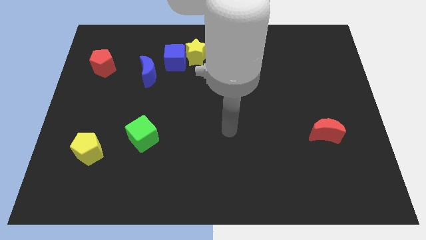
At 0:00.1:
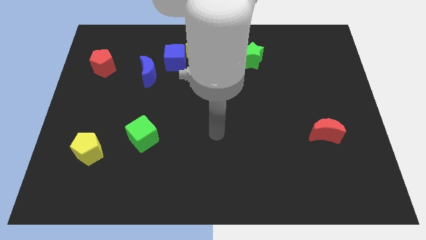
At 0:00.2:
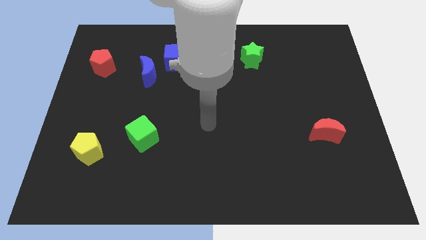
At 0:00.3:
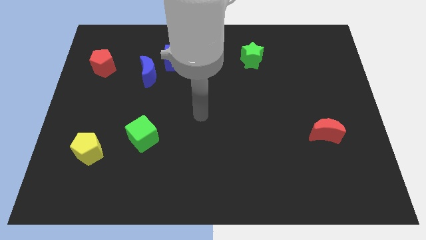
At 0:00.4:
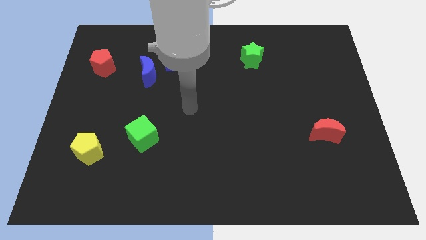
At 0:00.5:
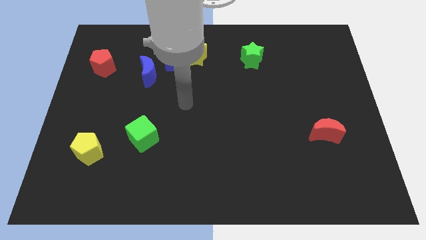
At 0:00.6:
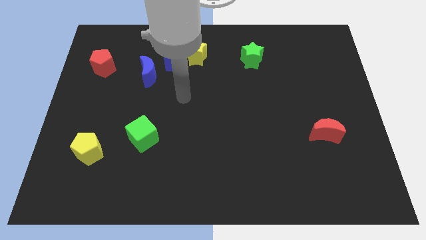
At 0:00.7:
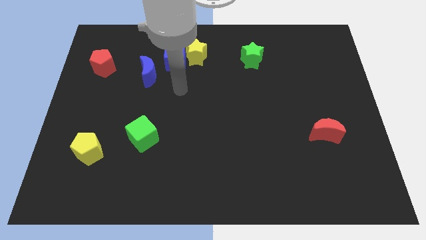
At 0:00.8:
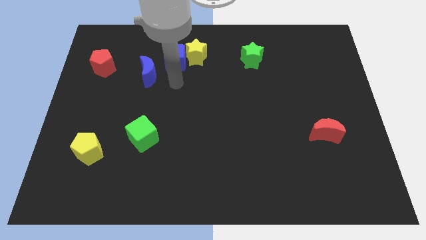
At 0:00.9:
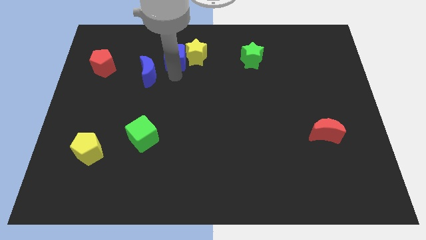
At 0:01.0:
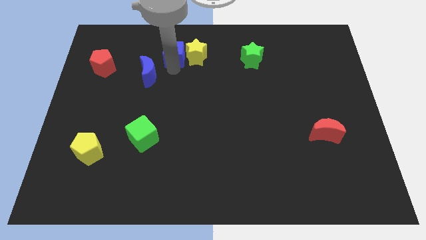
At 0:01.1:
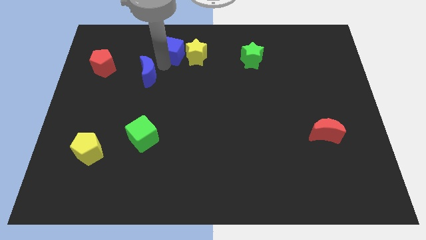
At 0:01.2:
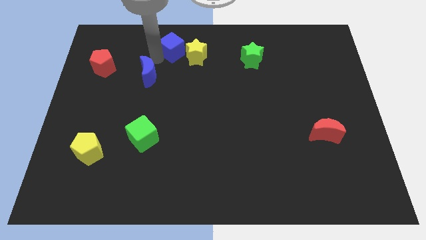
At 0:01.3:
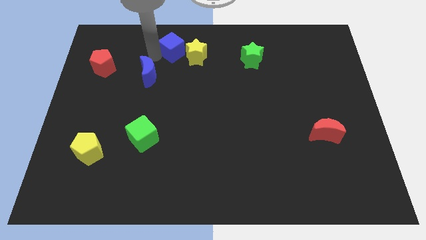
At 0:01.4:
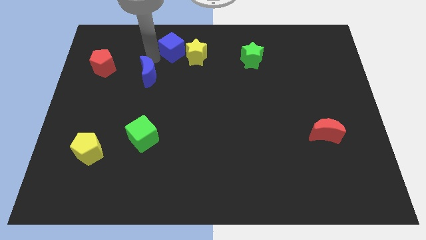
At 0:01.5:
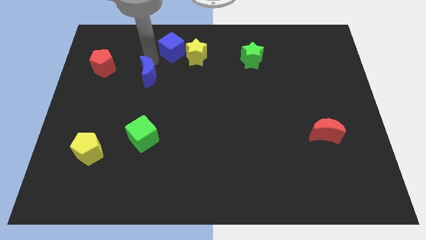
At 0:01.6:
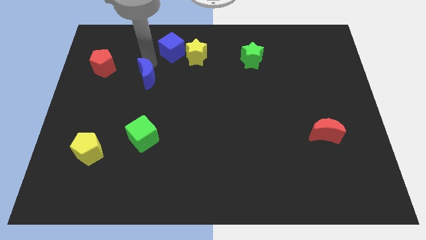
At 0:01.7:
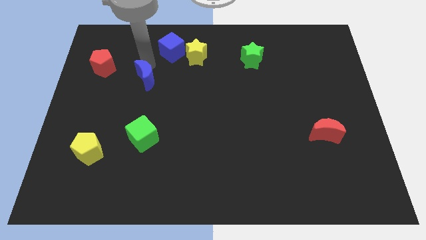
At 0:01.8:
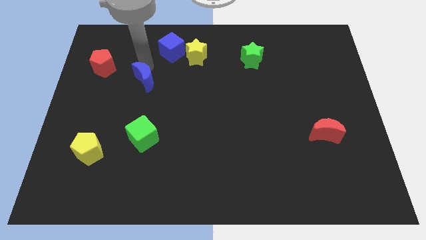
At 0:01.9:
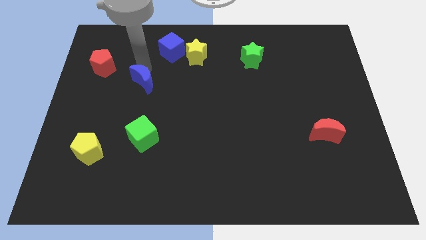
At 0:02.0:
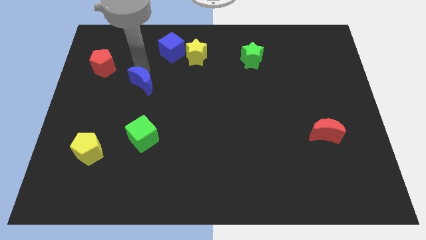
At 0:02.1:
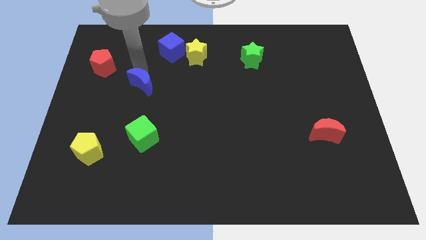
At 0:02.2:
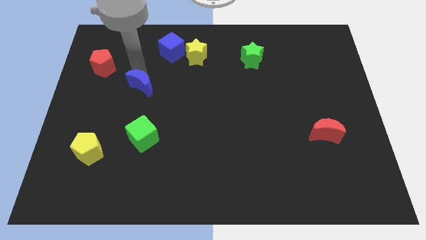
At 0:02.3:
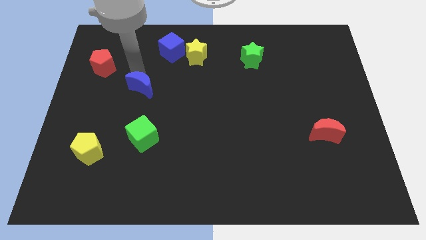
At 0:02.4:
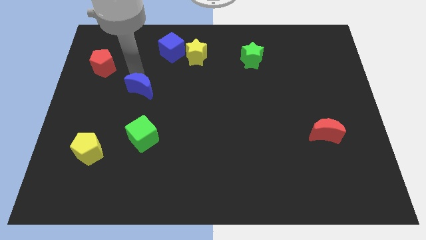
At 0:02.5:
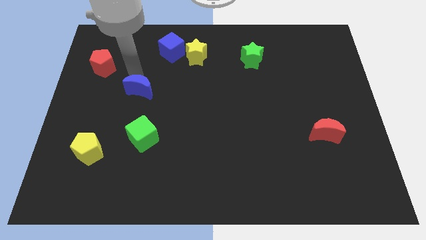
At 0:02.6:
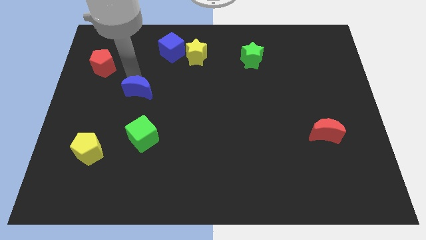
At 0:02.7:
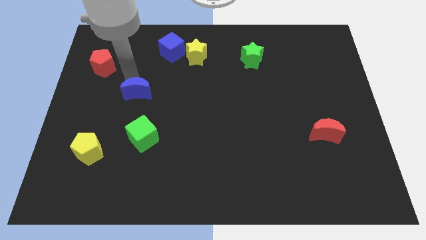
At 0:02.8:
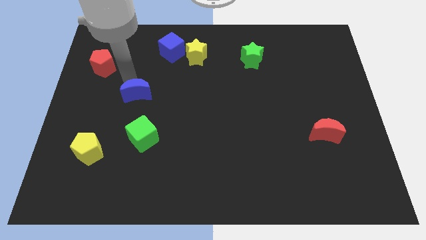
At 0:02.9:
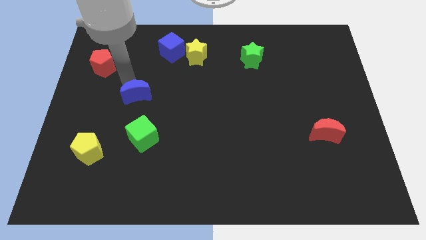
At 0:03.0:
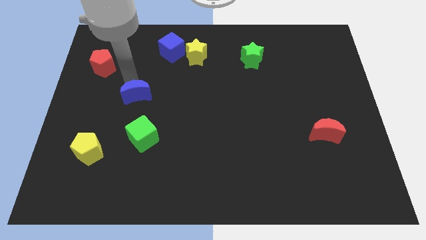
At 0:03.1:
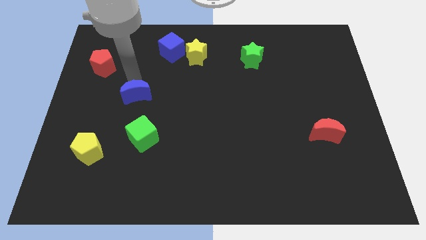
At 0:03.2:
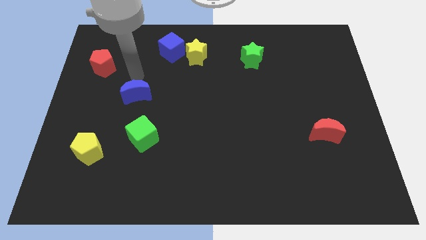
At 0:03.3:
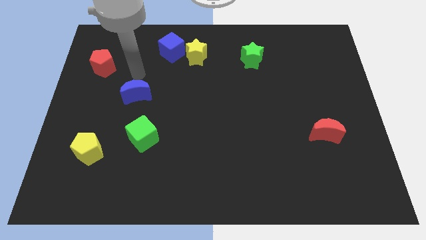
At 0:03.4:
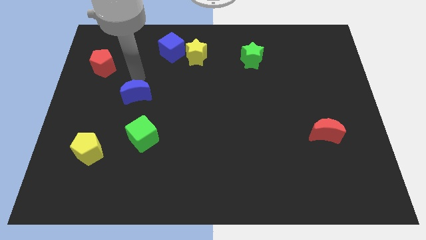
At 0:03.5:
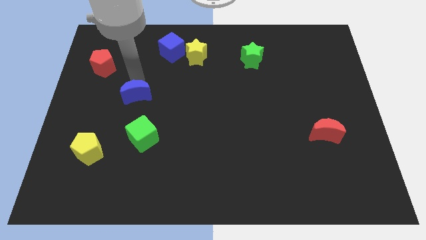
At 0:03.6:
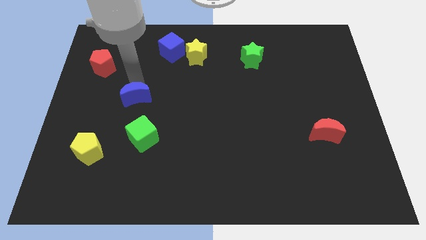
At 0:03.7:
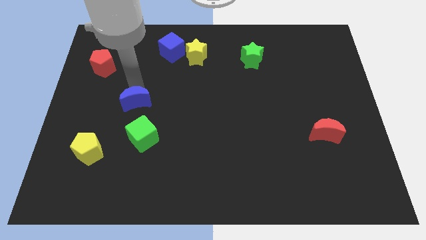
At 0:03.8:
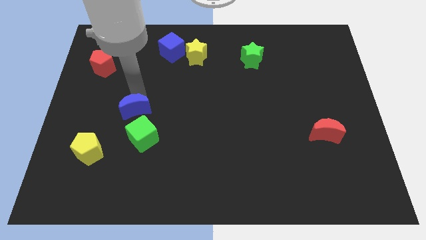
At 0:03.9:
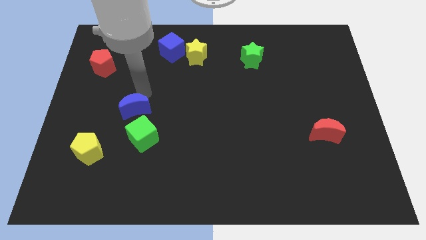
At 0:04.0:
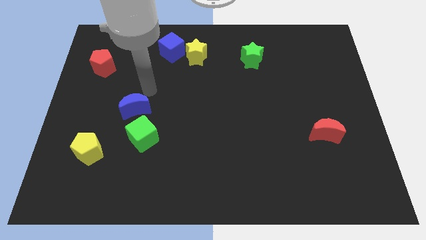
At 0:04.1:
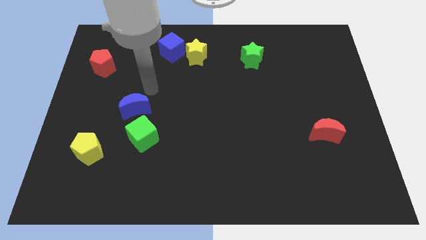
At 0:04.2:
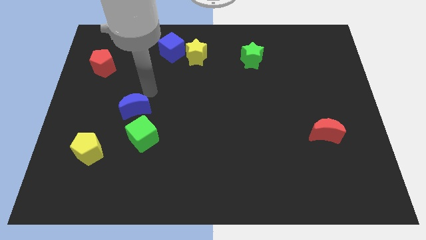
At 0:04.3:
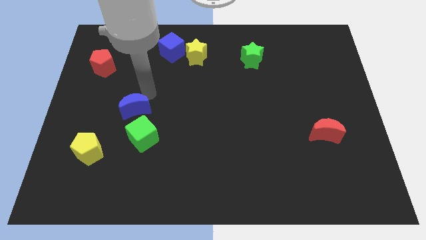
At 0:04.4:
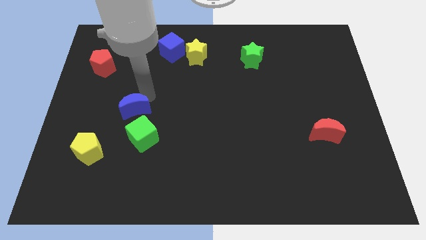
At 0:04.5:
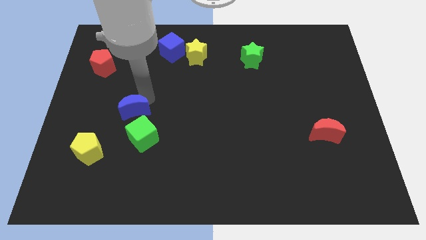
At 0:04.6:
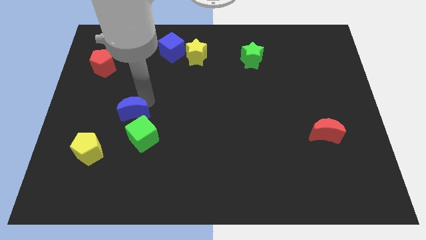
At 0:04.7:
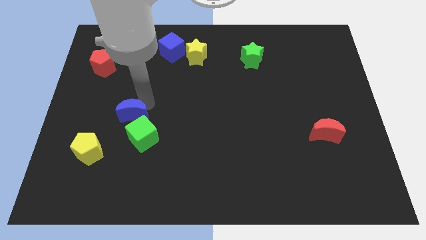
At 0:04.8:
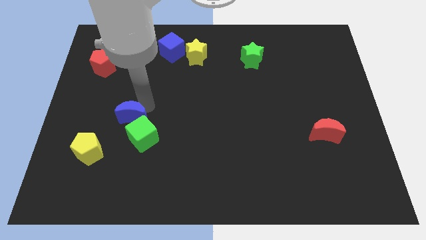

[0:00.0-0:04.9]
push the blue moon diagonally up and to the right of the yellow pentagon

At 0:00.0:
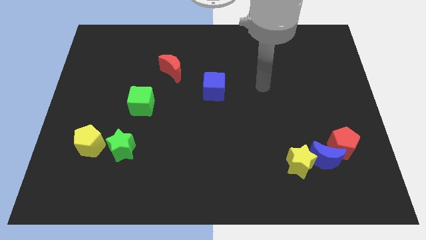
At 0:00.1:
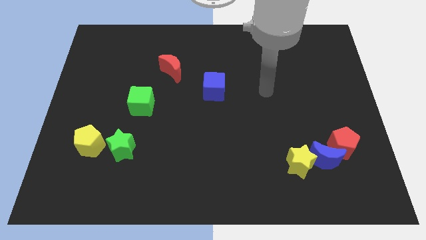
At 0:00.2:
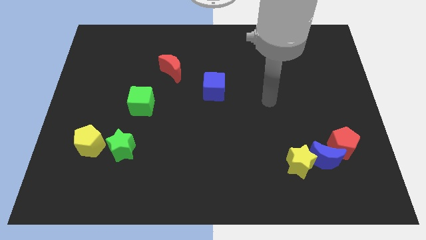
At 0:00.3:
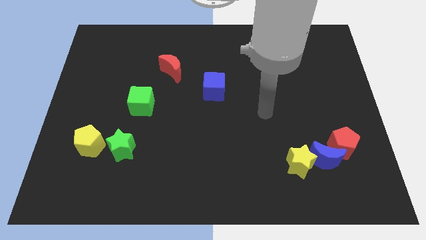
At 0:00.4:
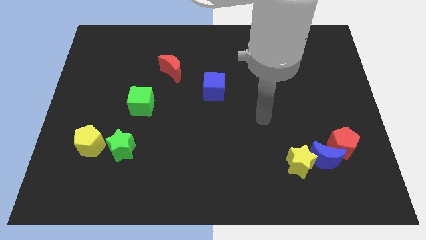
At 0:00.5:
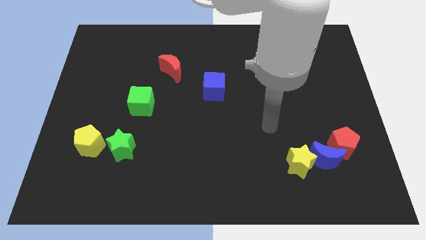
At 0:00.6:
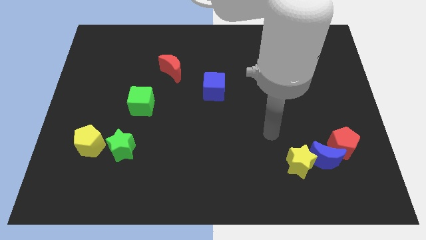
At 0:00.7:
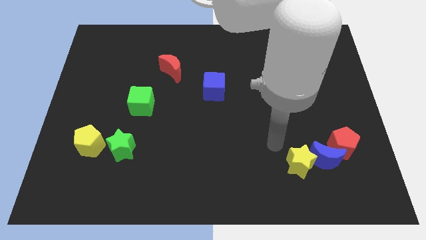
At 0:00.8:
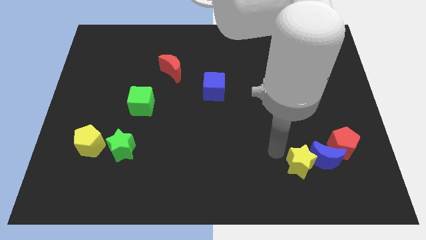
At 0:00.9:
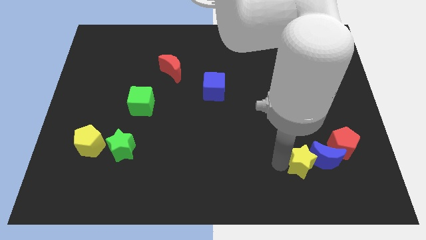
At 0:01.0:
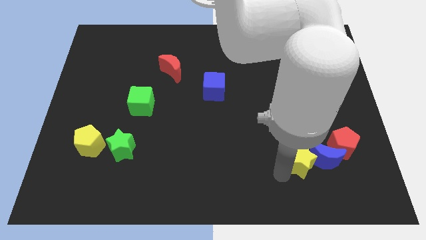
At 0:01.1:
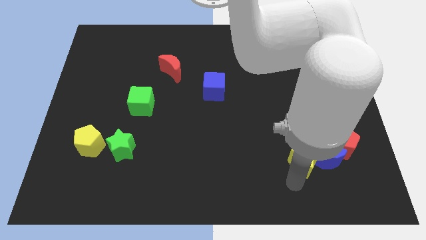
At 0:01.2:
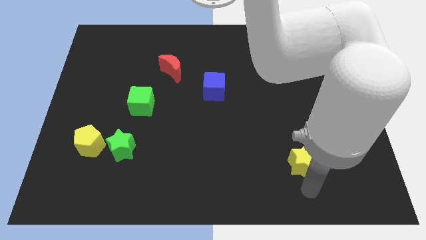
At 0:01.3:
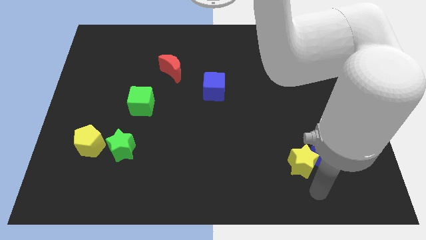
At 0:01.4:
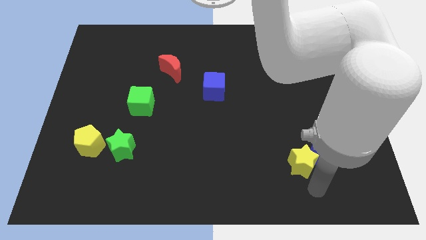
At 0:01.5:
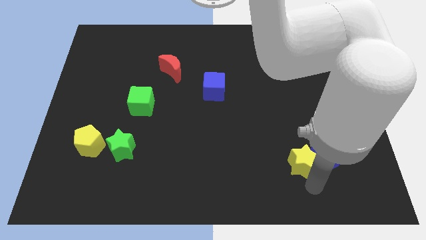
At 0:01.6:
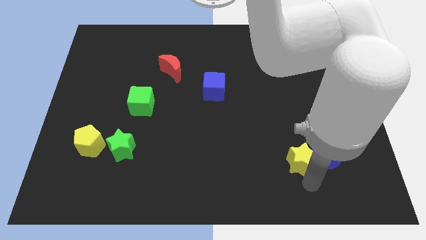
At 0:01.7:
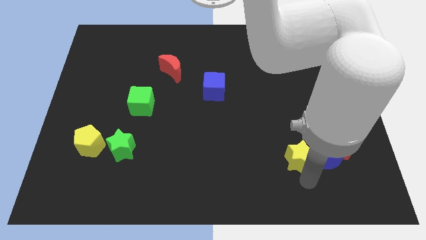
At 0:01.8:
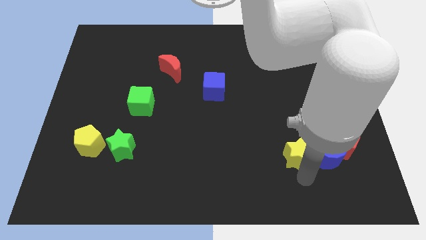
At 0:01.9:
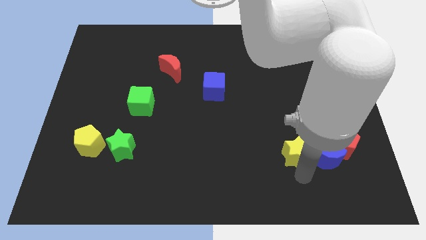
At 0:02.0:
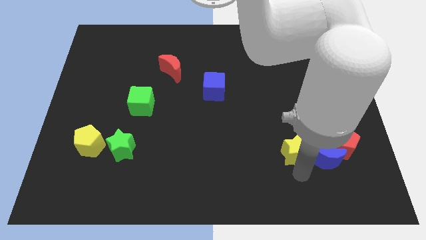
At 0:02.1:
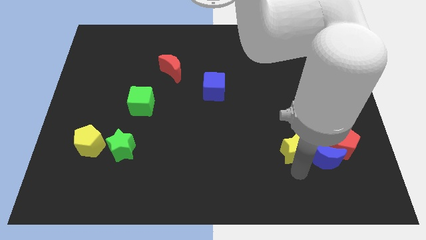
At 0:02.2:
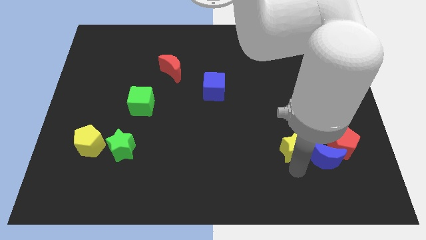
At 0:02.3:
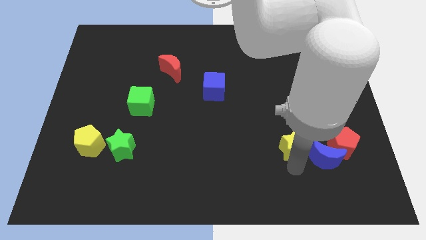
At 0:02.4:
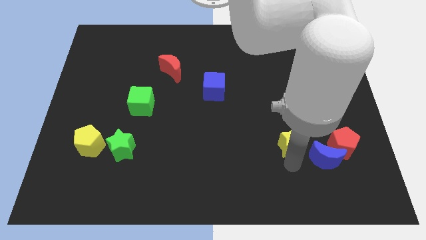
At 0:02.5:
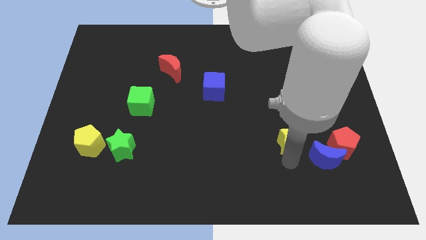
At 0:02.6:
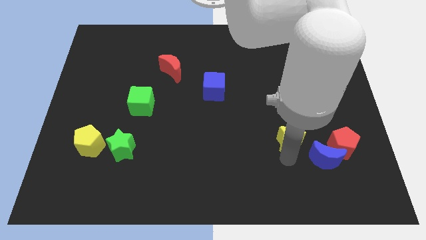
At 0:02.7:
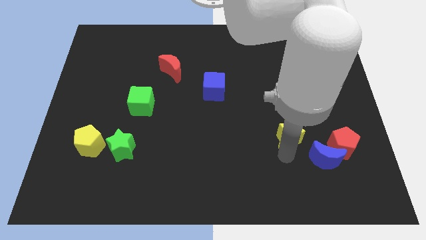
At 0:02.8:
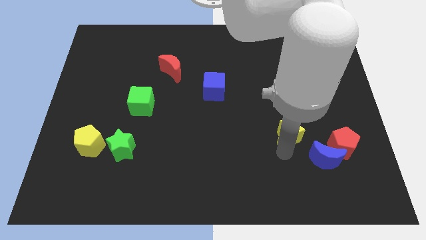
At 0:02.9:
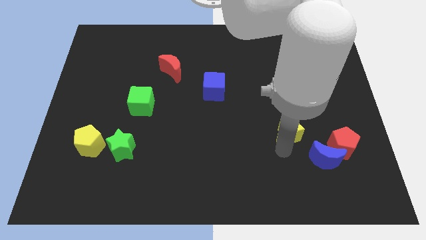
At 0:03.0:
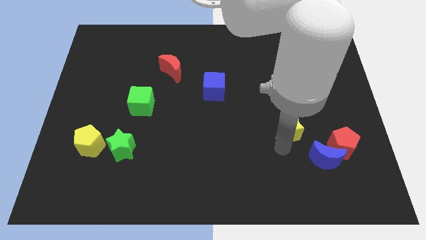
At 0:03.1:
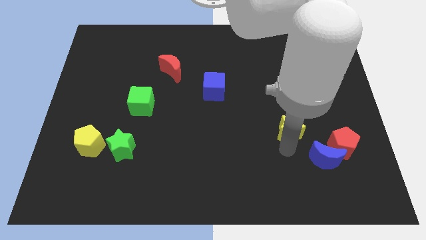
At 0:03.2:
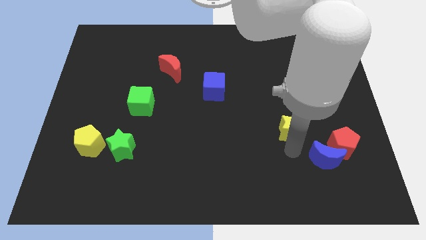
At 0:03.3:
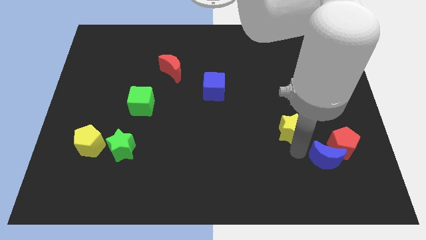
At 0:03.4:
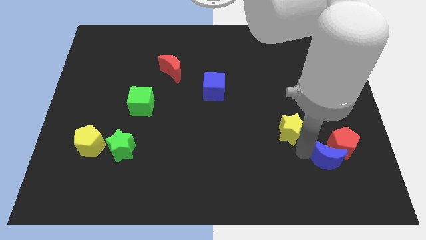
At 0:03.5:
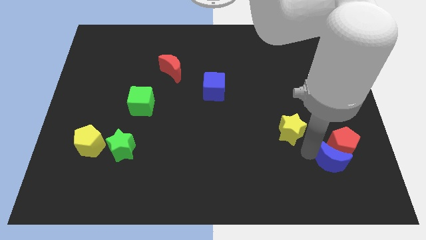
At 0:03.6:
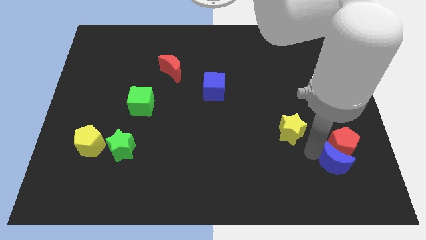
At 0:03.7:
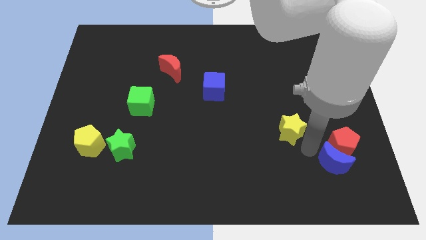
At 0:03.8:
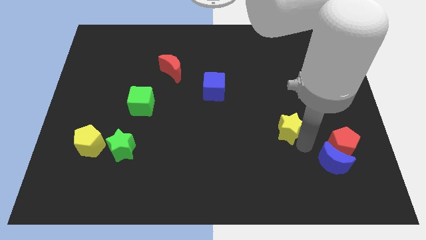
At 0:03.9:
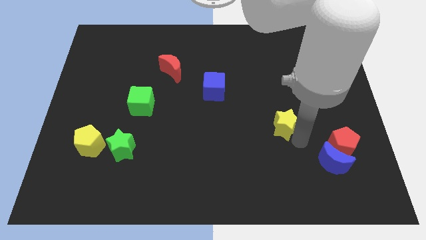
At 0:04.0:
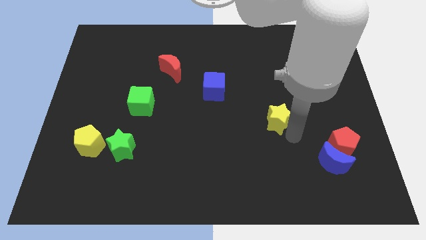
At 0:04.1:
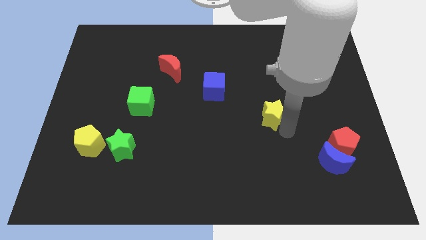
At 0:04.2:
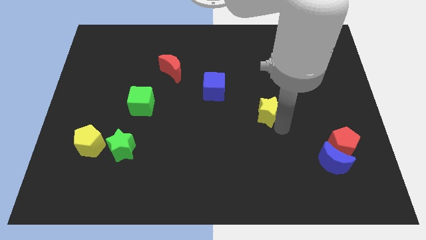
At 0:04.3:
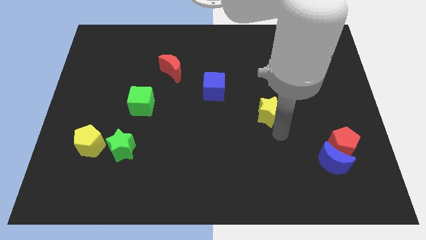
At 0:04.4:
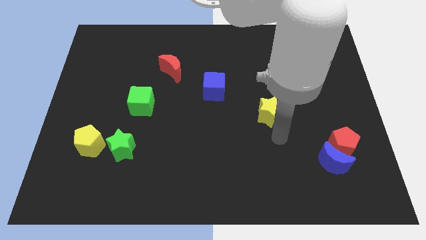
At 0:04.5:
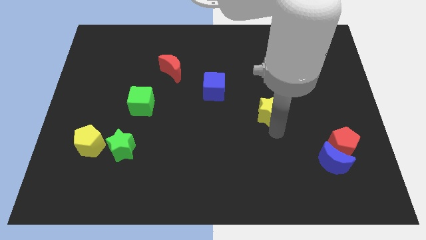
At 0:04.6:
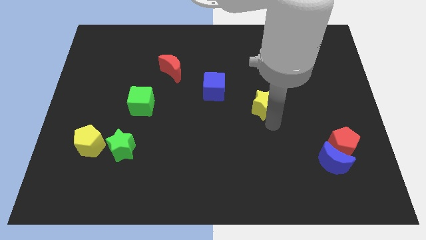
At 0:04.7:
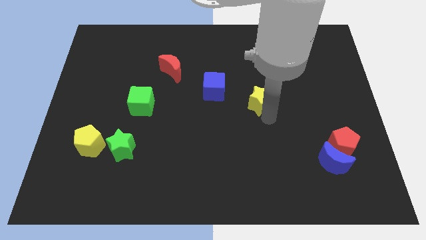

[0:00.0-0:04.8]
push the yellow star right of the blue cube
